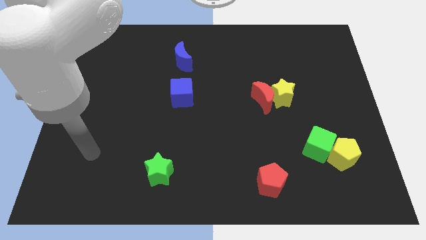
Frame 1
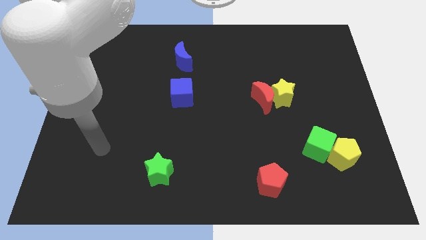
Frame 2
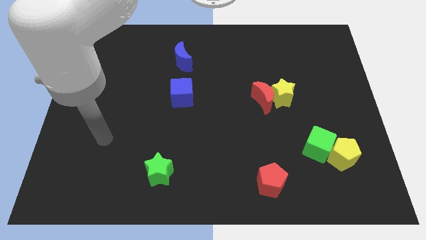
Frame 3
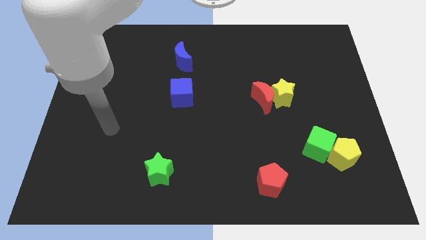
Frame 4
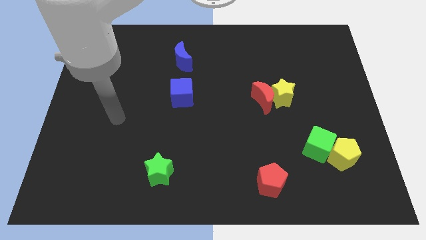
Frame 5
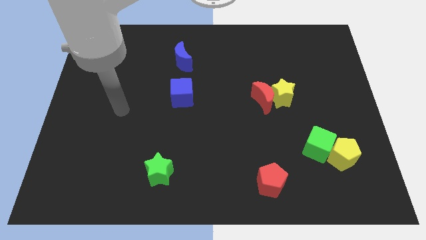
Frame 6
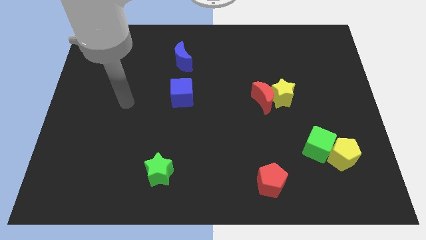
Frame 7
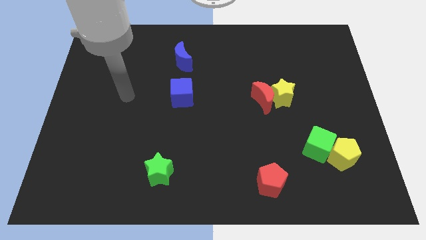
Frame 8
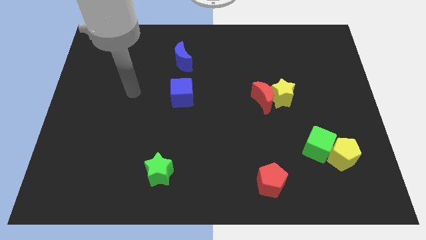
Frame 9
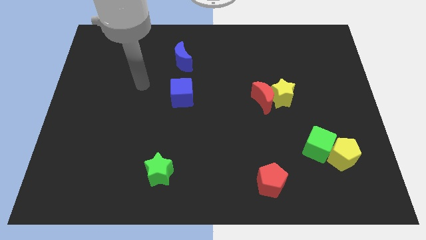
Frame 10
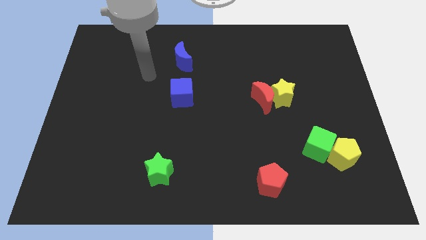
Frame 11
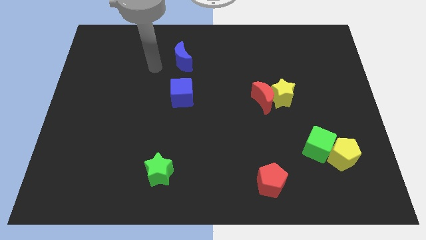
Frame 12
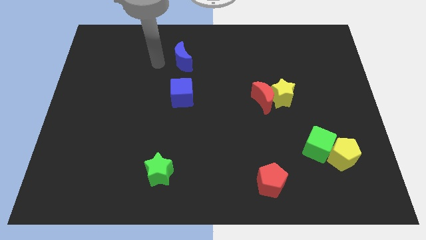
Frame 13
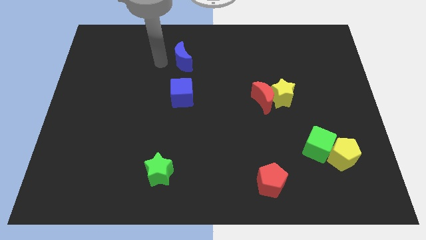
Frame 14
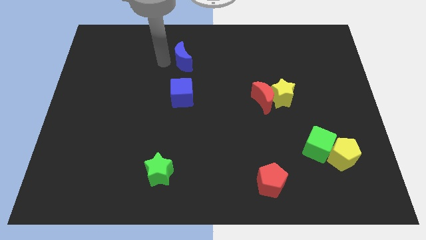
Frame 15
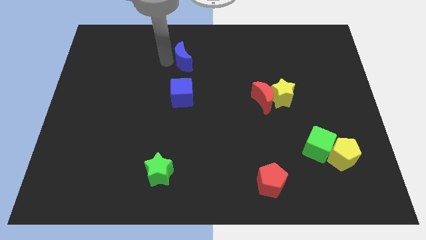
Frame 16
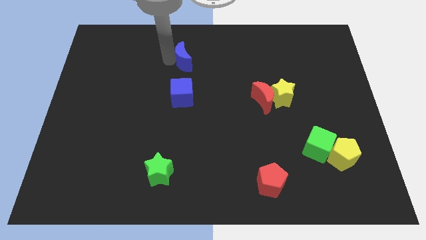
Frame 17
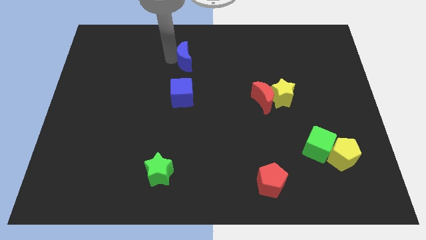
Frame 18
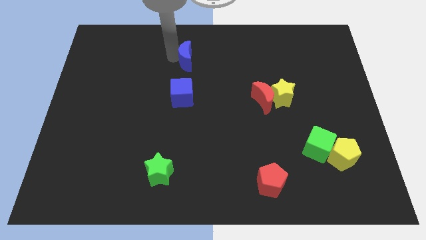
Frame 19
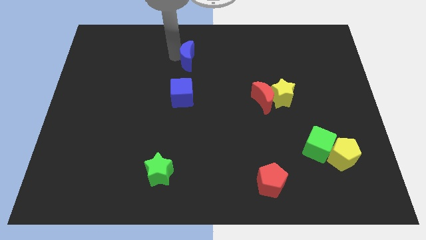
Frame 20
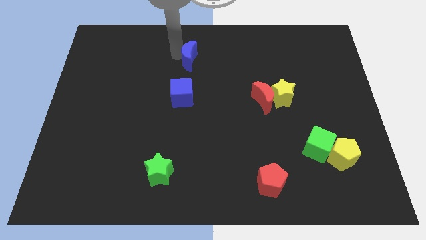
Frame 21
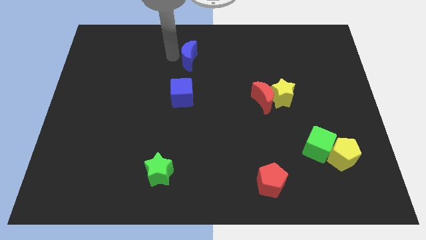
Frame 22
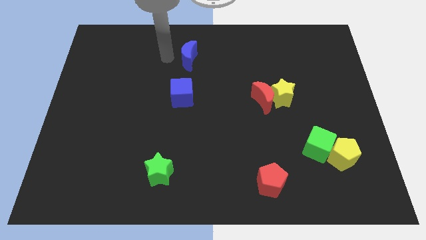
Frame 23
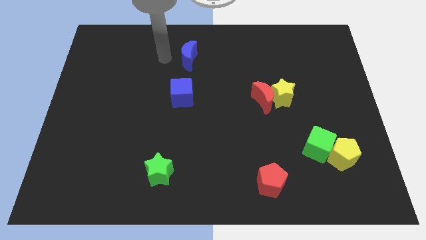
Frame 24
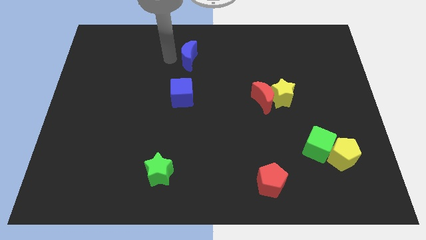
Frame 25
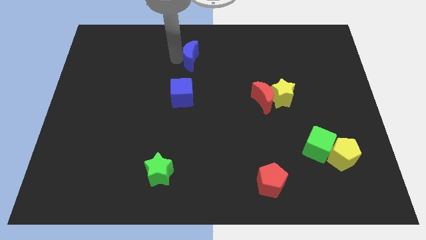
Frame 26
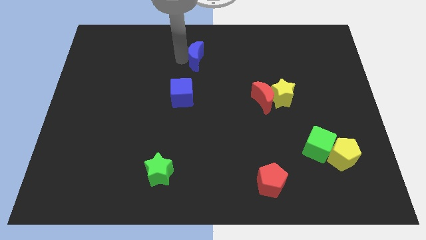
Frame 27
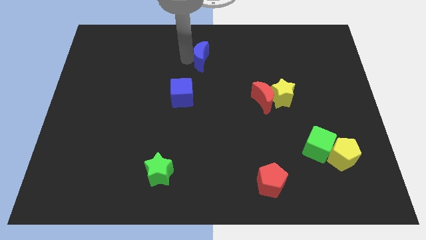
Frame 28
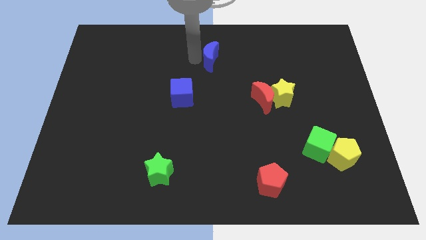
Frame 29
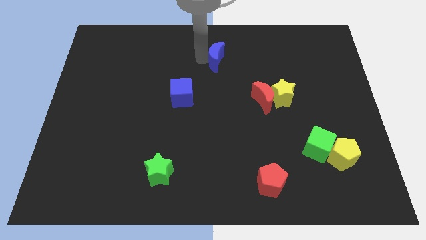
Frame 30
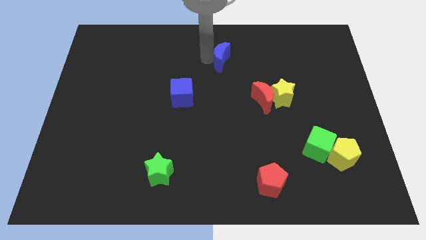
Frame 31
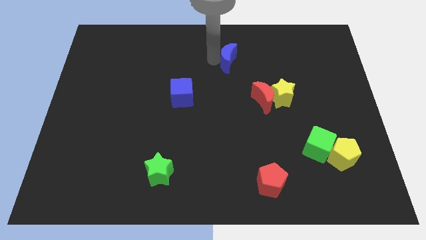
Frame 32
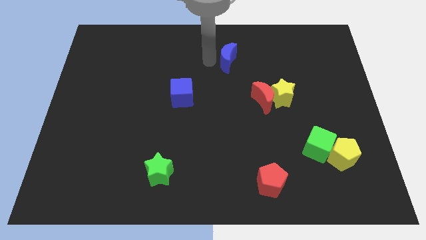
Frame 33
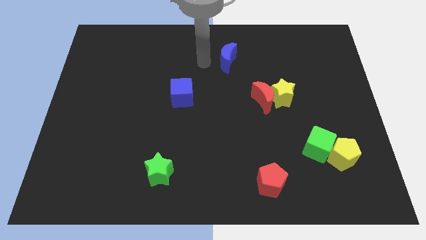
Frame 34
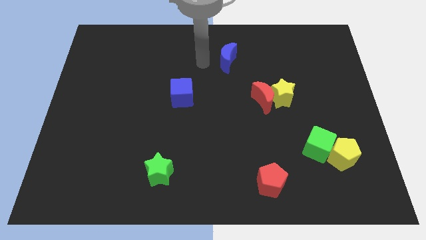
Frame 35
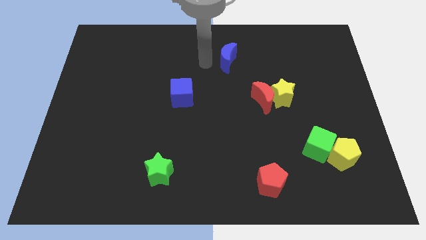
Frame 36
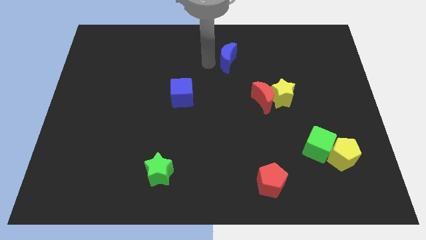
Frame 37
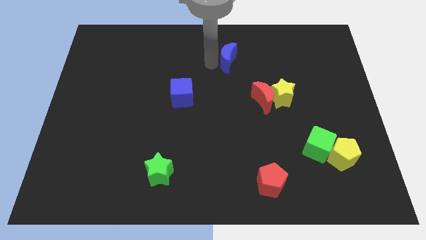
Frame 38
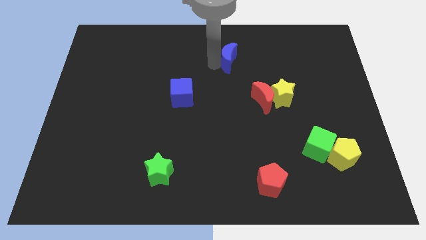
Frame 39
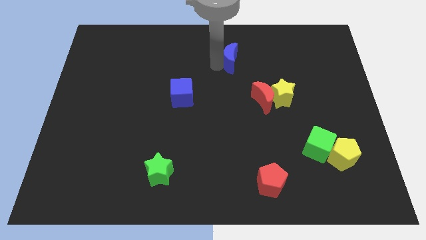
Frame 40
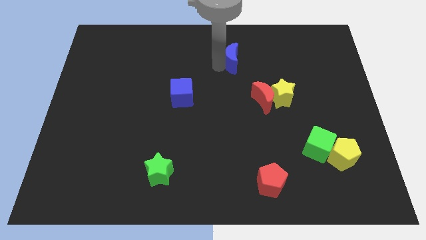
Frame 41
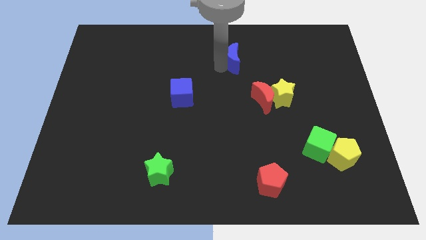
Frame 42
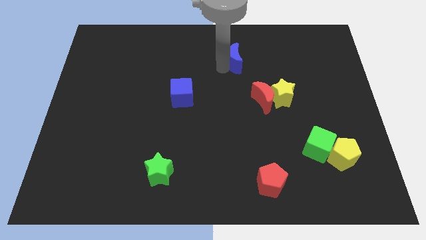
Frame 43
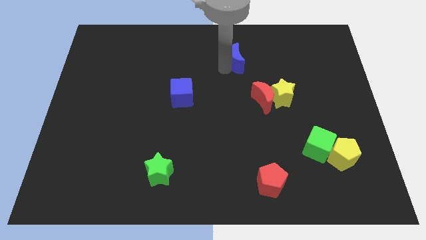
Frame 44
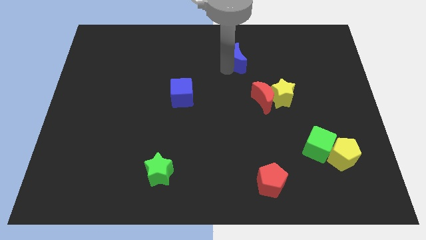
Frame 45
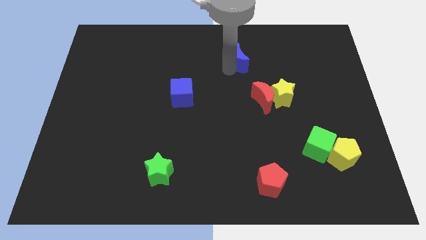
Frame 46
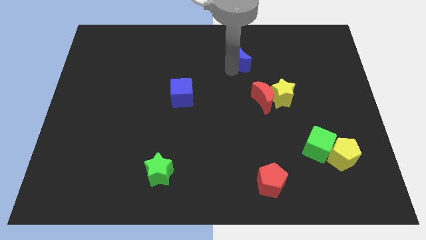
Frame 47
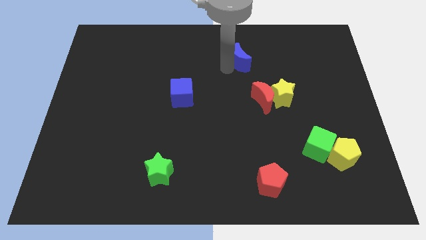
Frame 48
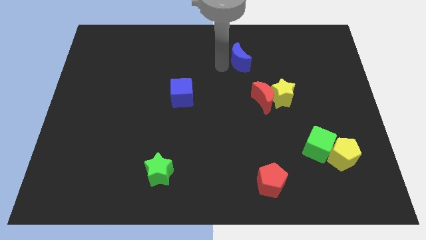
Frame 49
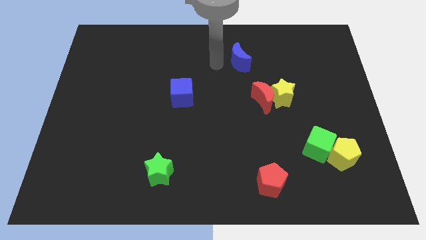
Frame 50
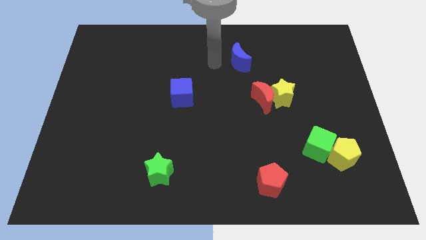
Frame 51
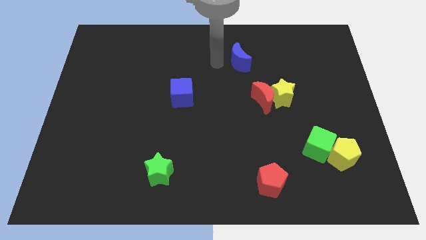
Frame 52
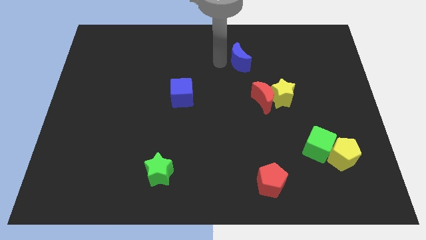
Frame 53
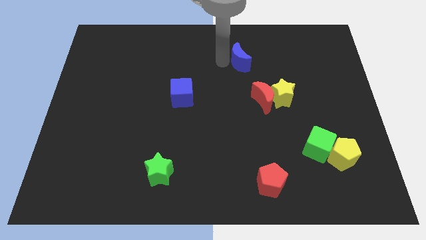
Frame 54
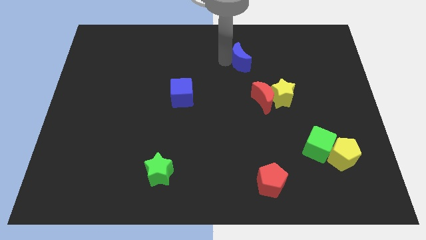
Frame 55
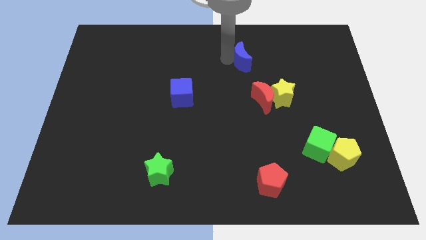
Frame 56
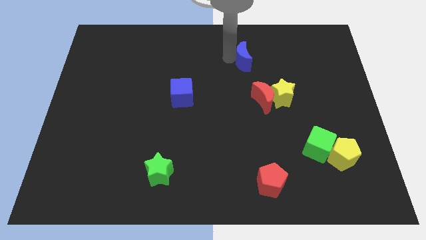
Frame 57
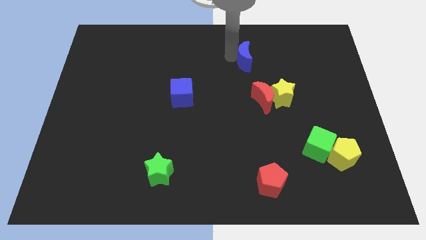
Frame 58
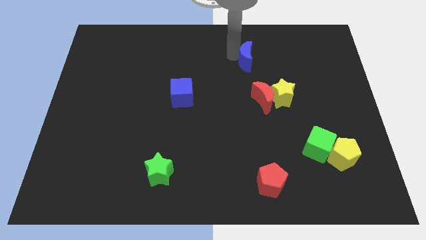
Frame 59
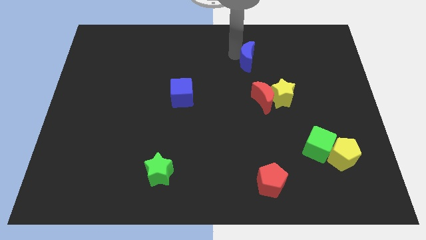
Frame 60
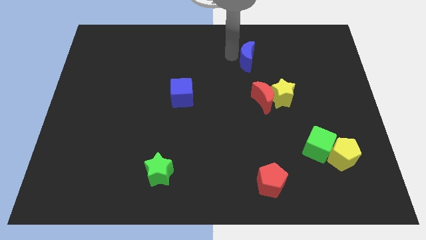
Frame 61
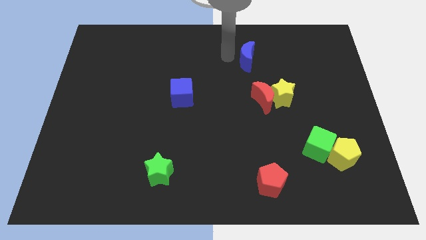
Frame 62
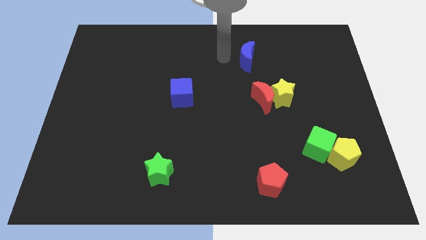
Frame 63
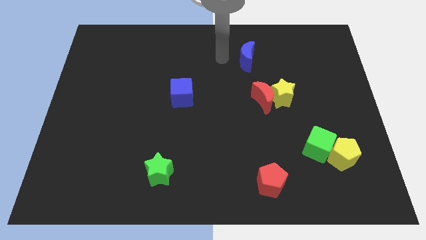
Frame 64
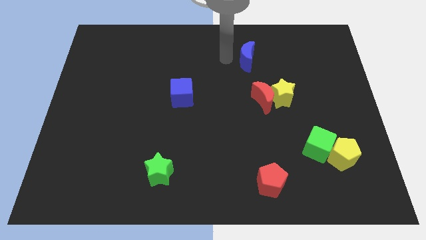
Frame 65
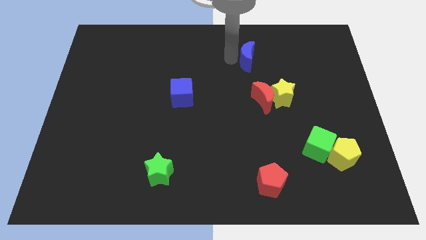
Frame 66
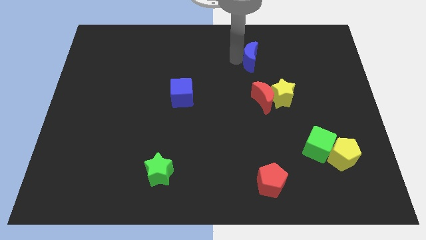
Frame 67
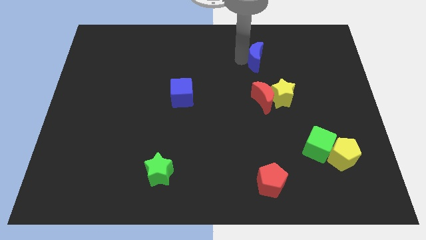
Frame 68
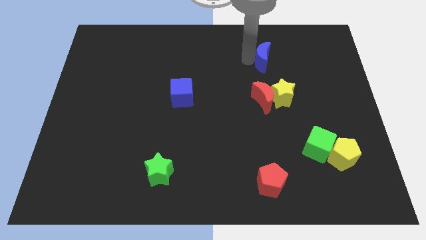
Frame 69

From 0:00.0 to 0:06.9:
push the blue moon to the right

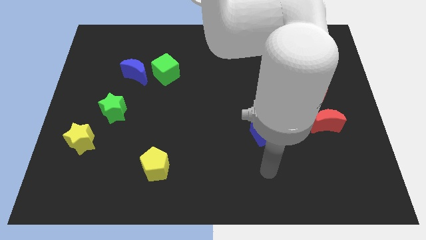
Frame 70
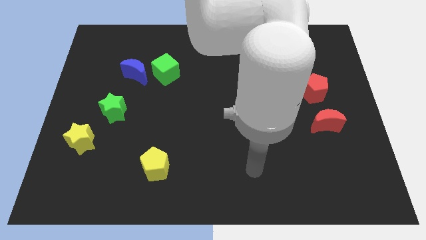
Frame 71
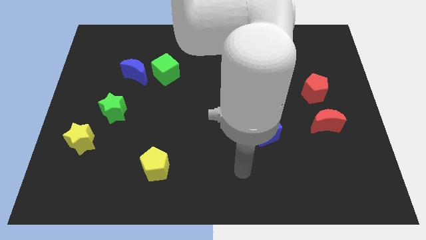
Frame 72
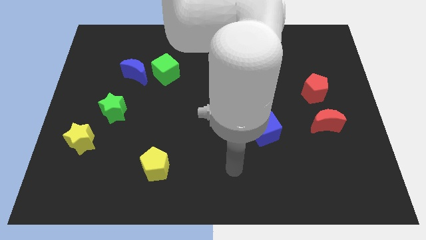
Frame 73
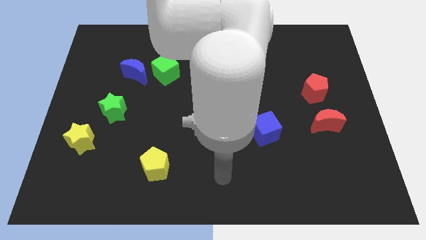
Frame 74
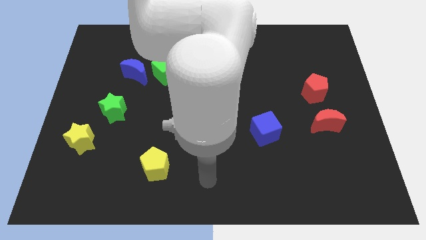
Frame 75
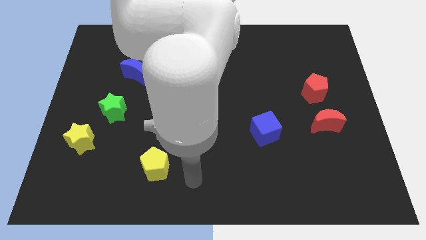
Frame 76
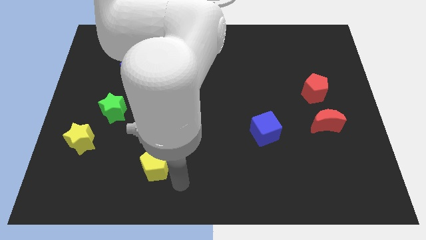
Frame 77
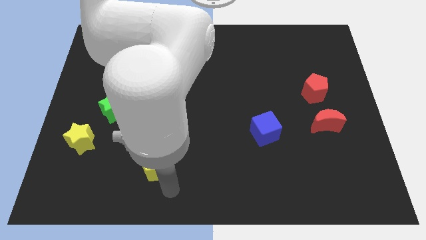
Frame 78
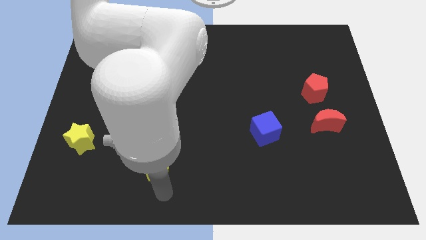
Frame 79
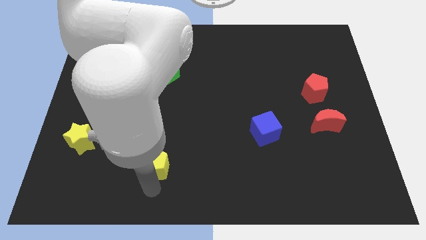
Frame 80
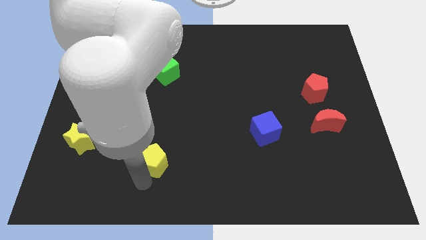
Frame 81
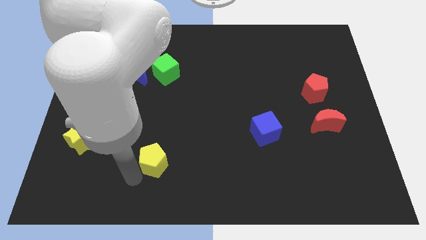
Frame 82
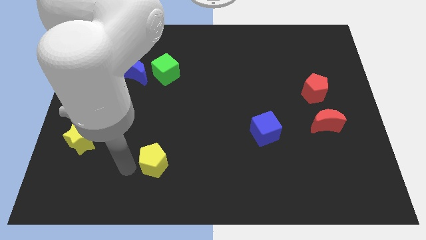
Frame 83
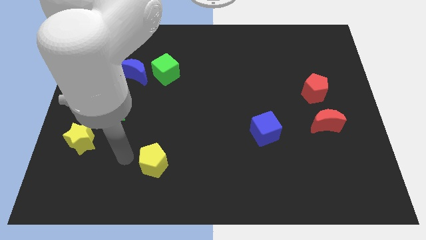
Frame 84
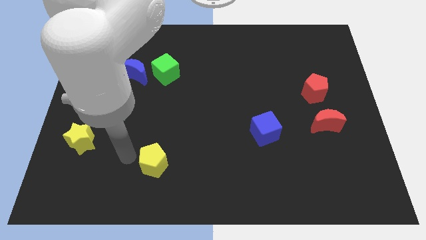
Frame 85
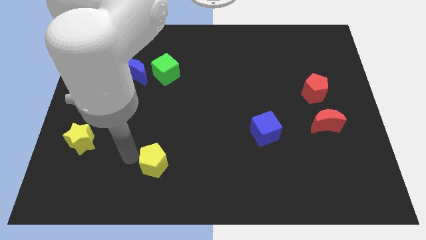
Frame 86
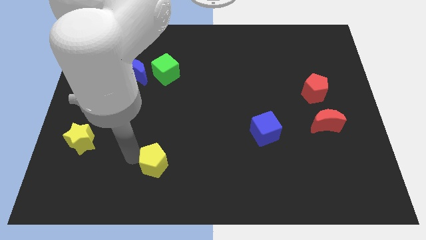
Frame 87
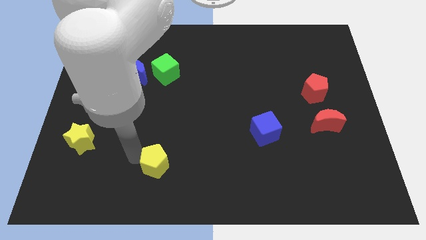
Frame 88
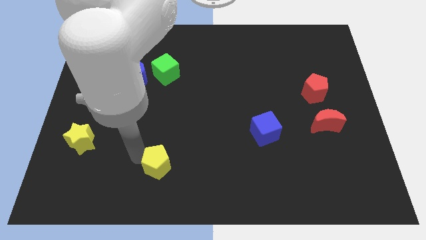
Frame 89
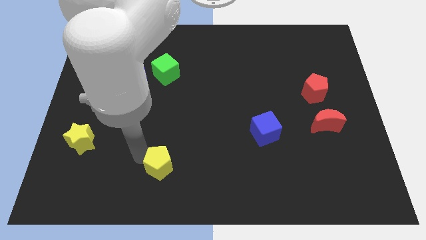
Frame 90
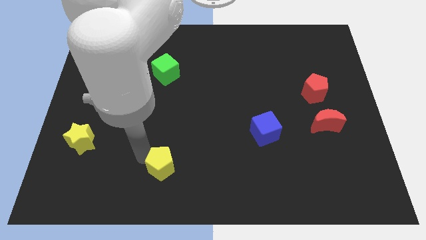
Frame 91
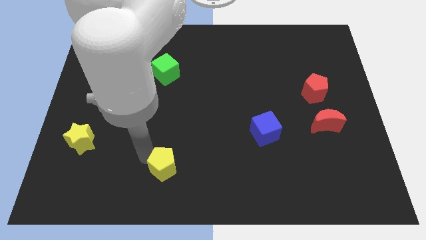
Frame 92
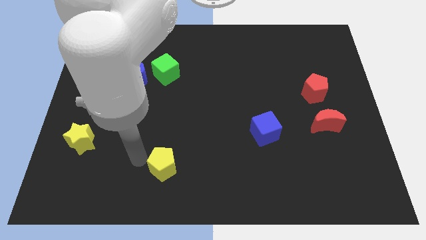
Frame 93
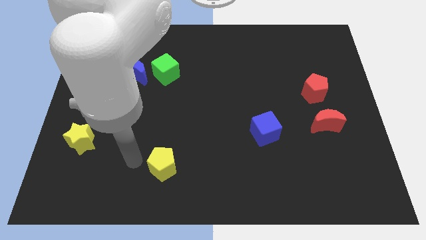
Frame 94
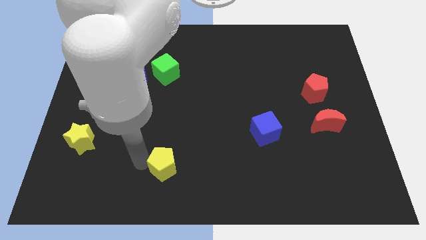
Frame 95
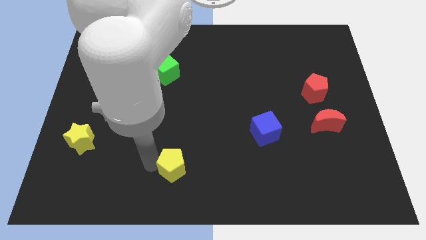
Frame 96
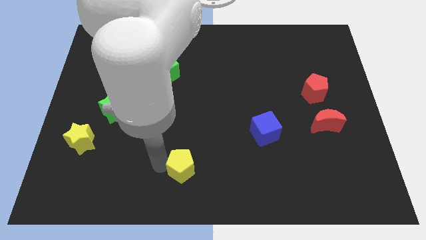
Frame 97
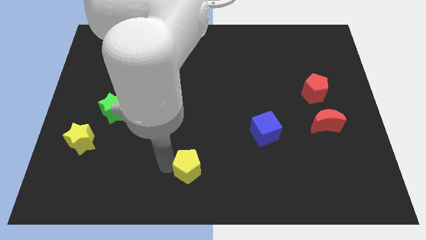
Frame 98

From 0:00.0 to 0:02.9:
slightly slide the yellow pentagon to the right
